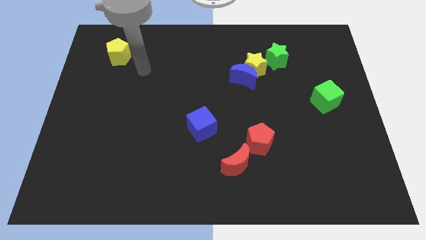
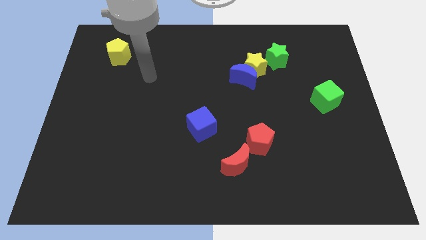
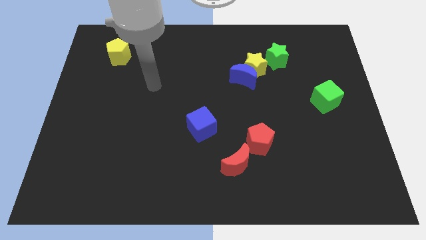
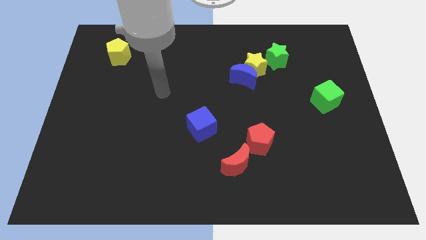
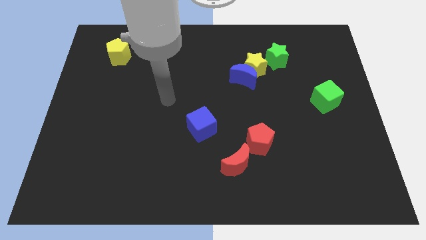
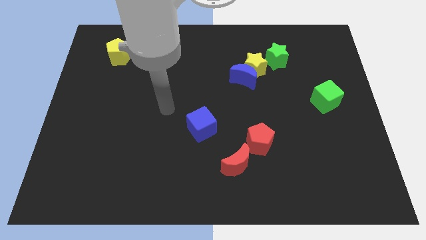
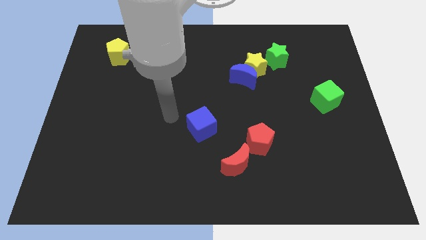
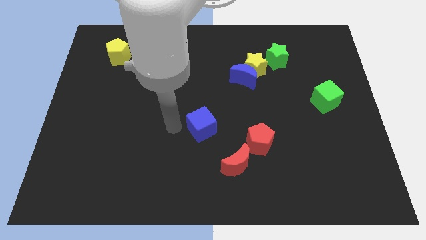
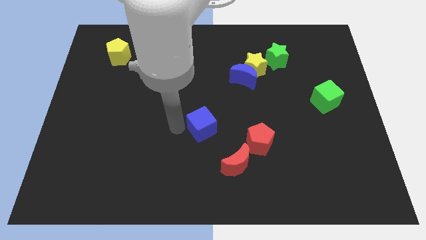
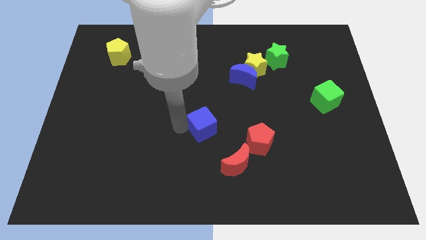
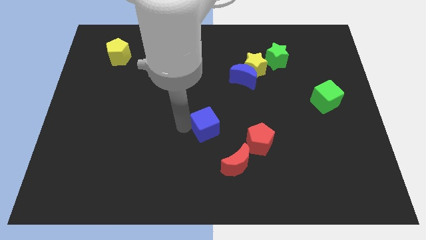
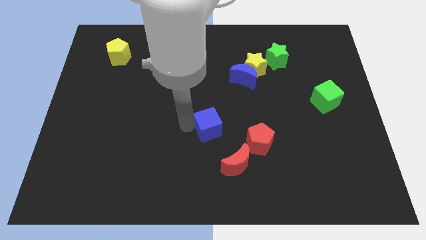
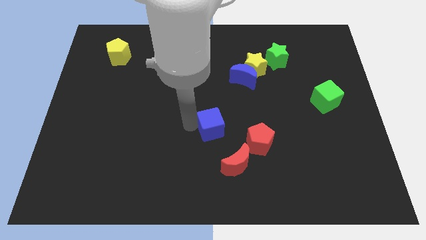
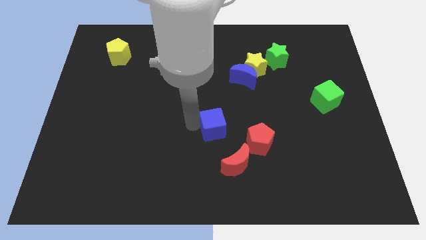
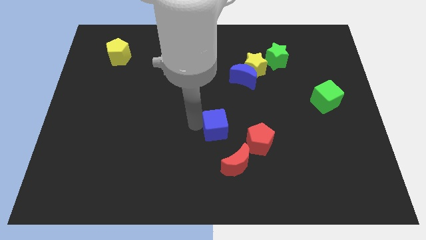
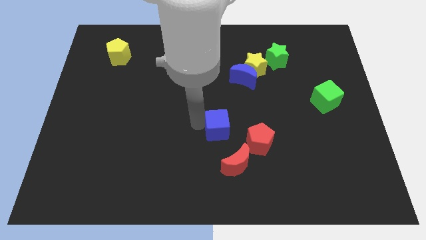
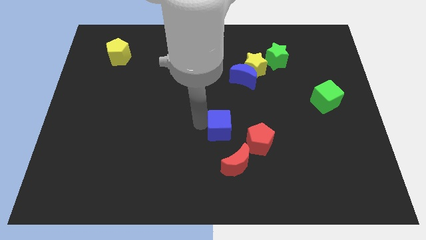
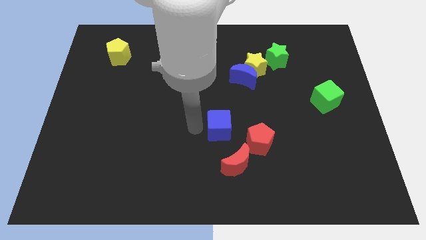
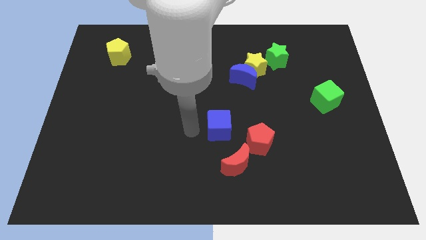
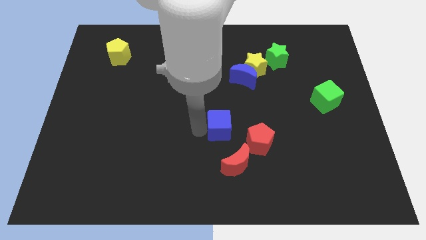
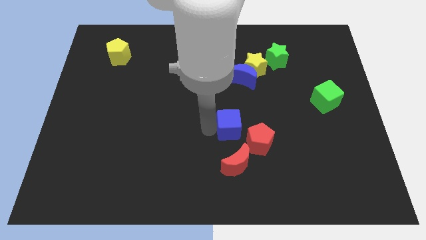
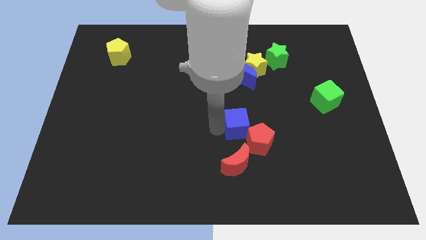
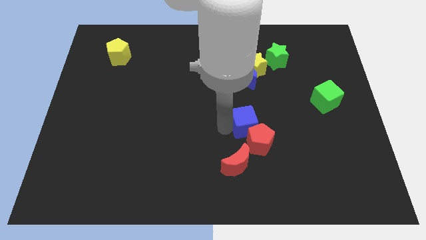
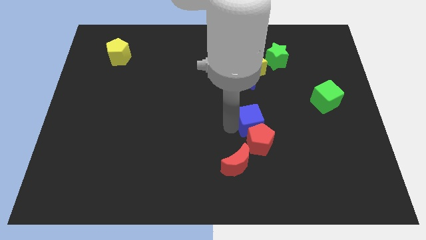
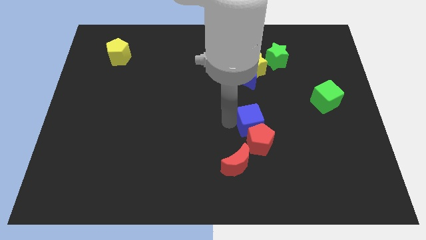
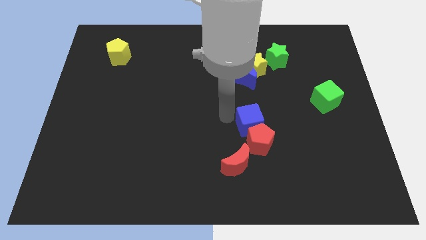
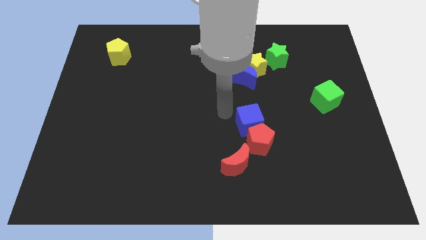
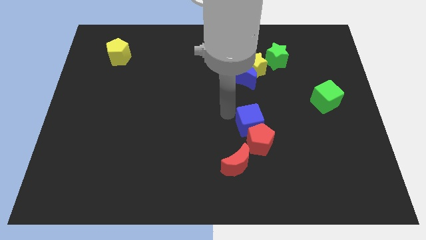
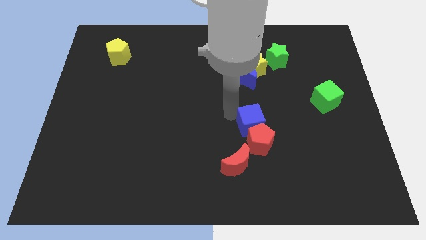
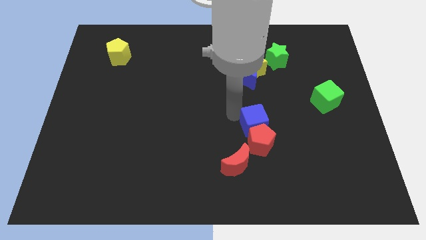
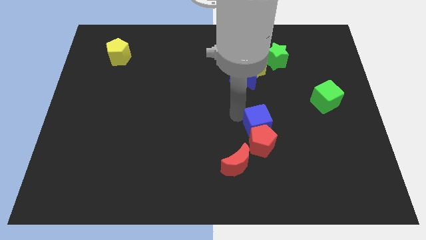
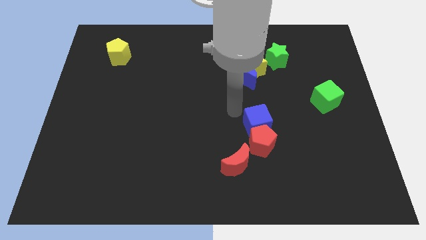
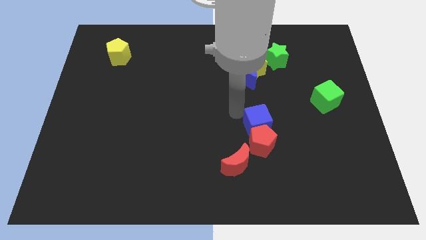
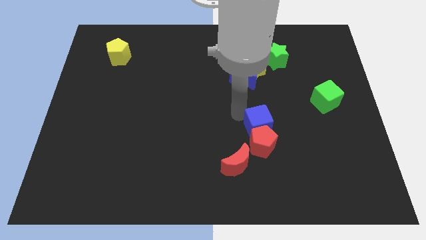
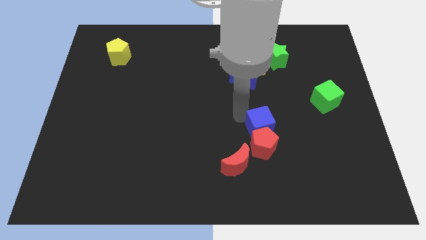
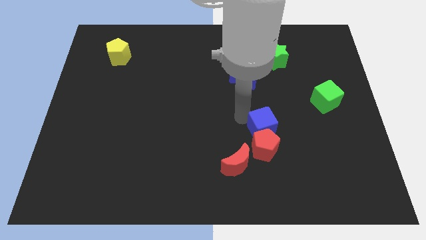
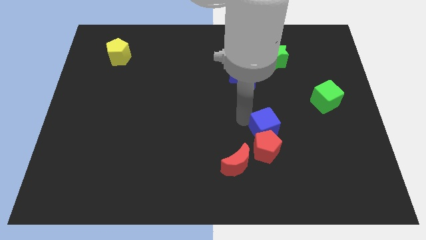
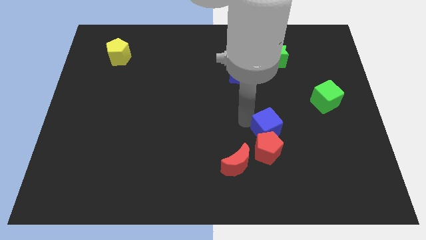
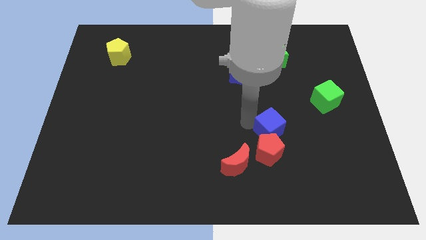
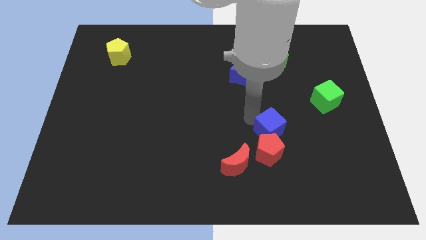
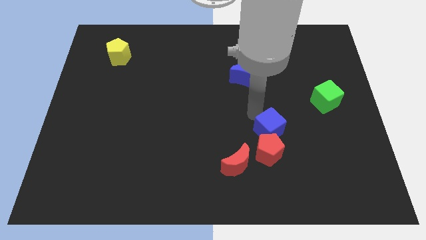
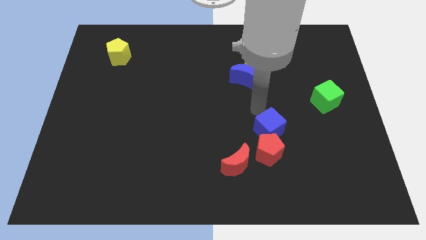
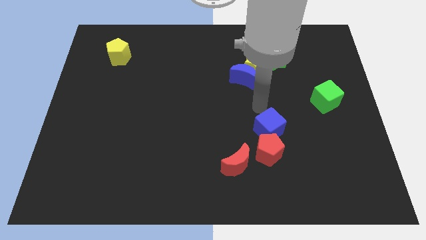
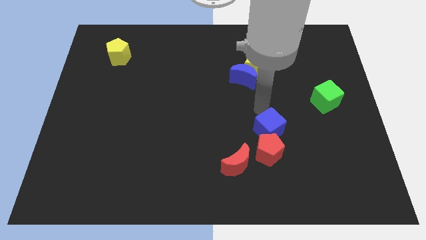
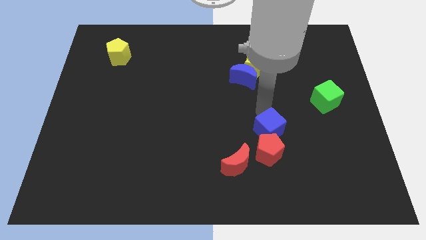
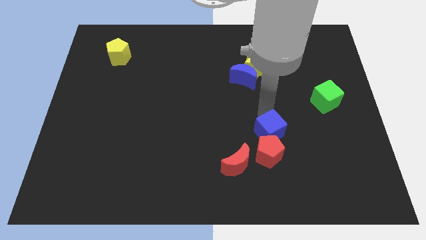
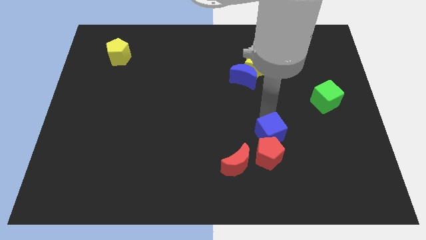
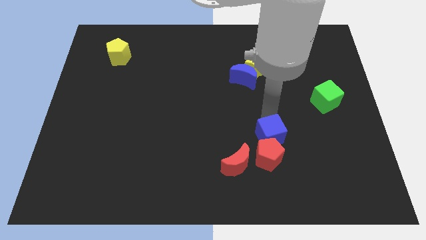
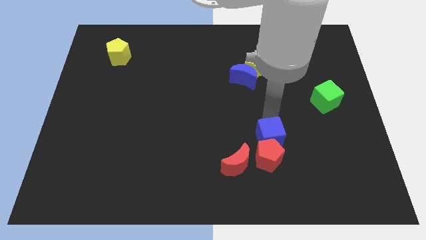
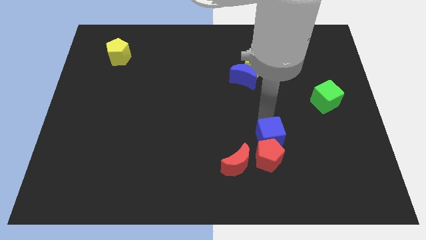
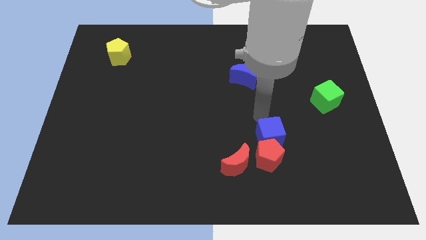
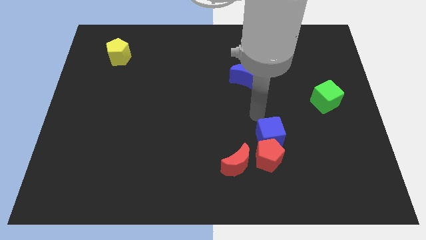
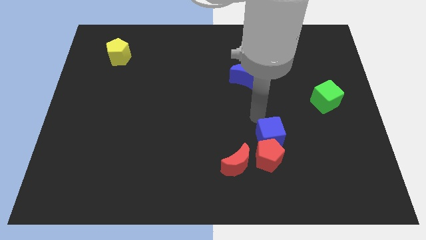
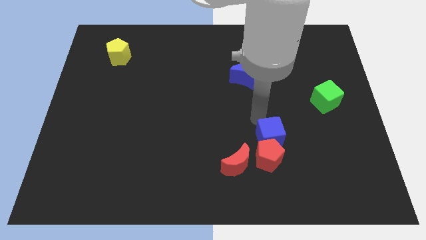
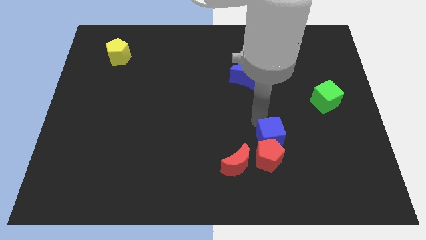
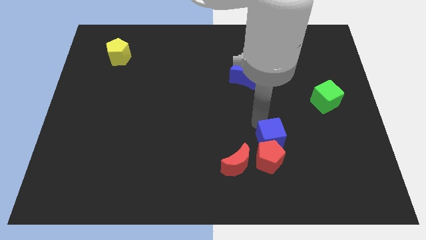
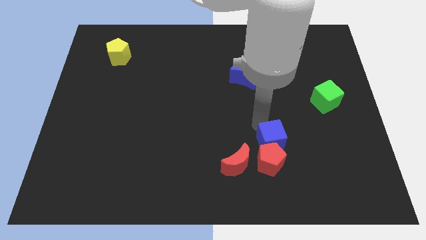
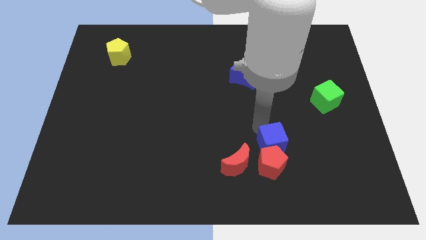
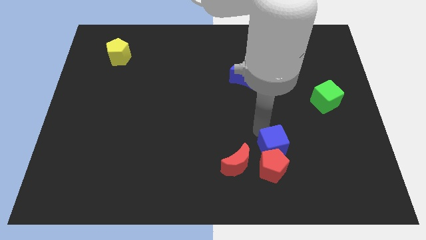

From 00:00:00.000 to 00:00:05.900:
push the blue cube right of the red moon
